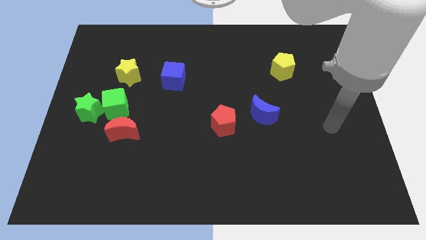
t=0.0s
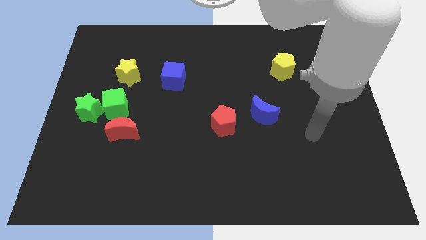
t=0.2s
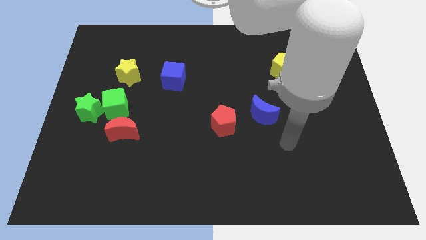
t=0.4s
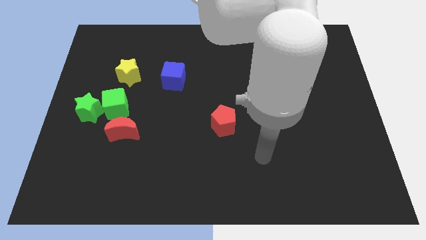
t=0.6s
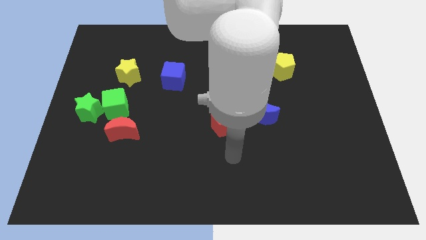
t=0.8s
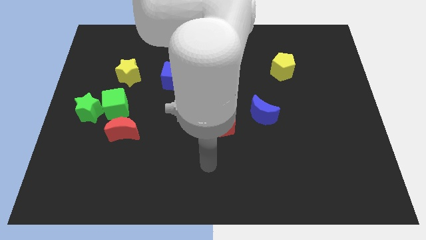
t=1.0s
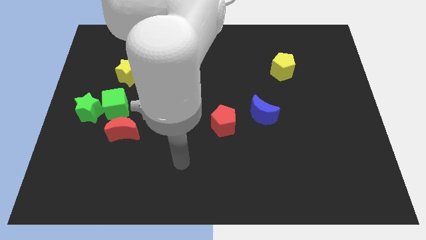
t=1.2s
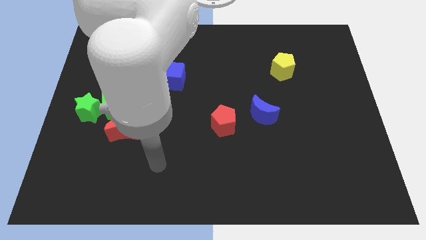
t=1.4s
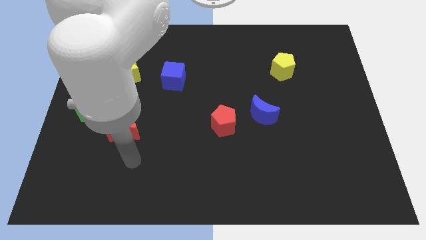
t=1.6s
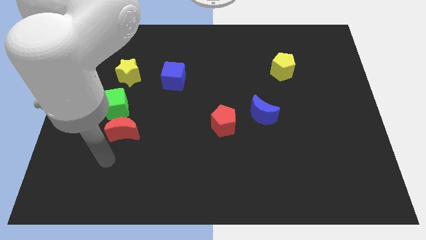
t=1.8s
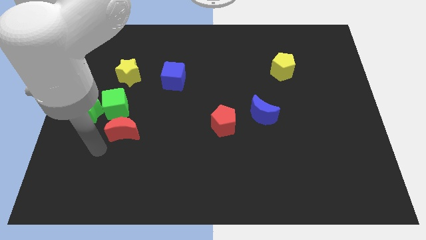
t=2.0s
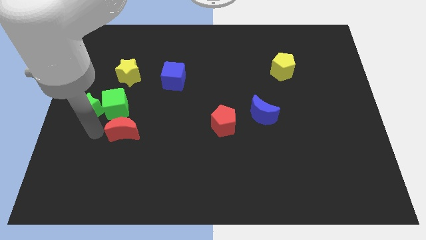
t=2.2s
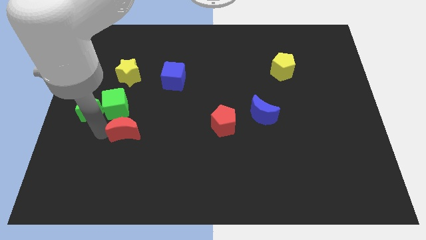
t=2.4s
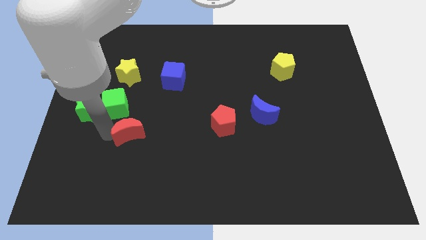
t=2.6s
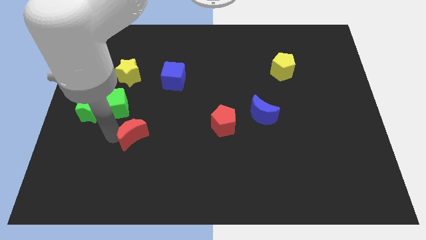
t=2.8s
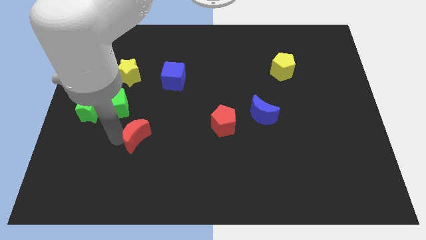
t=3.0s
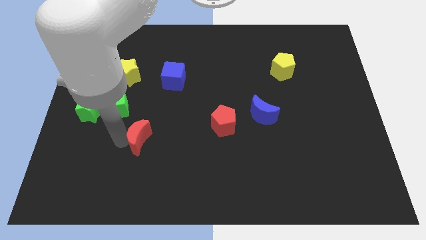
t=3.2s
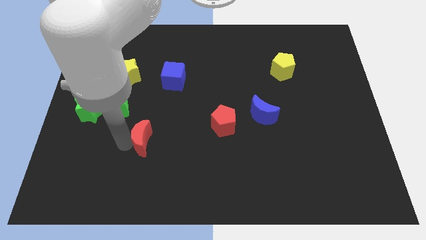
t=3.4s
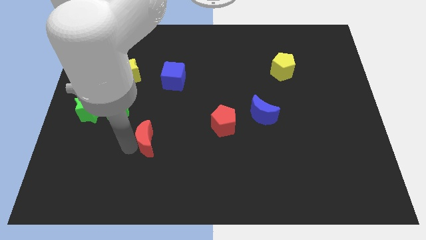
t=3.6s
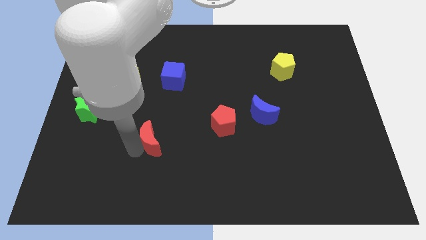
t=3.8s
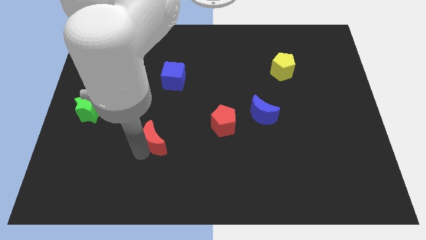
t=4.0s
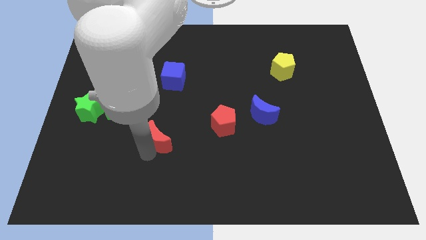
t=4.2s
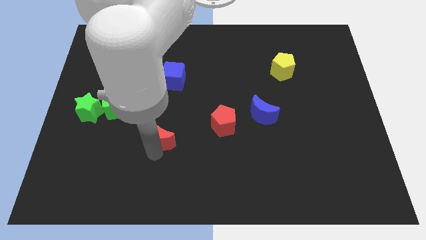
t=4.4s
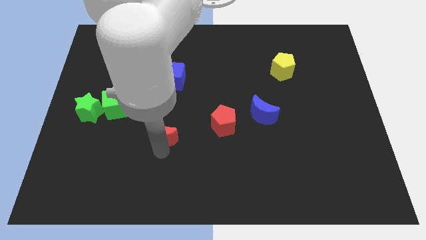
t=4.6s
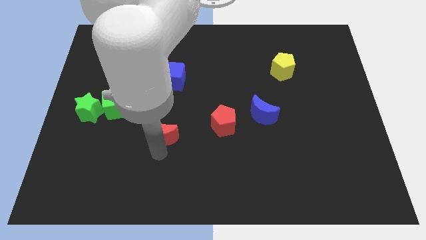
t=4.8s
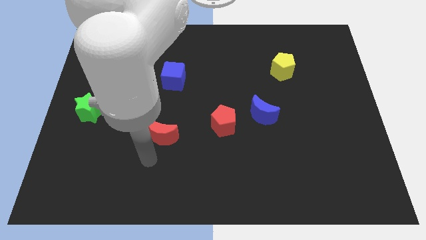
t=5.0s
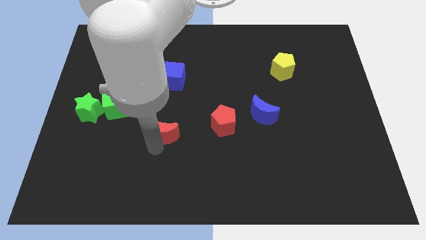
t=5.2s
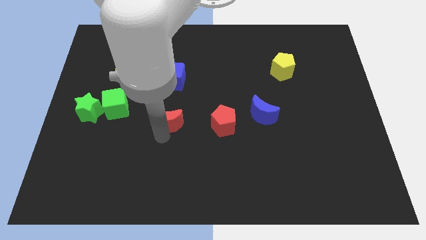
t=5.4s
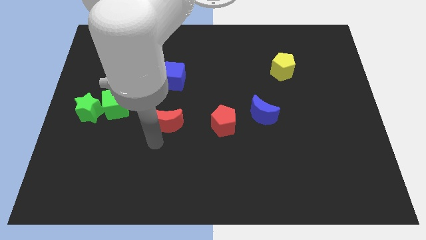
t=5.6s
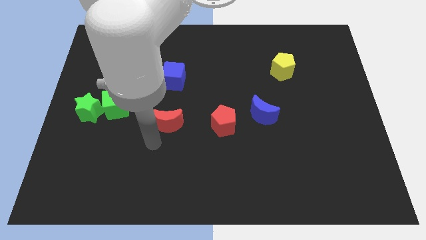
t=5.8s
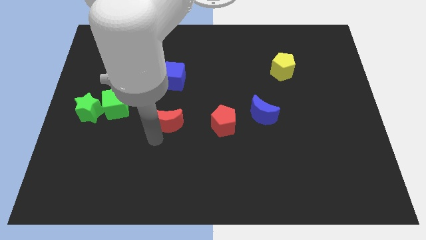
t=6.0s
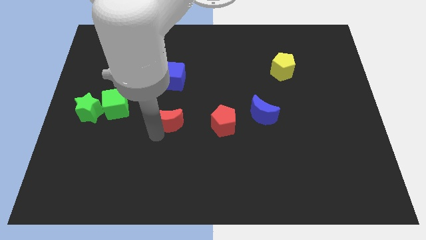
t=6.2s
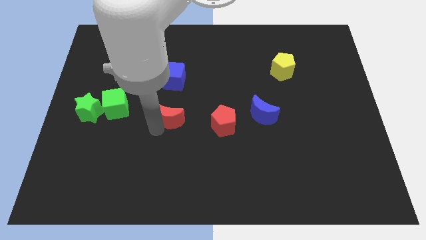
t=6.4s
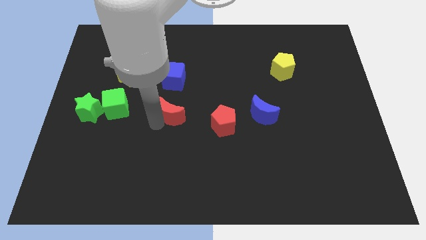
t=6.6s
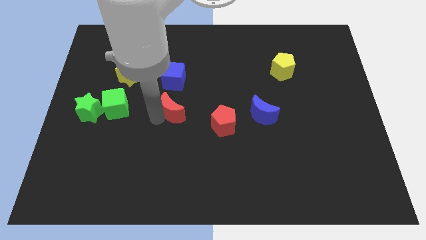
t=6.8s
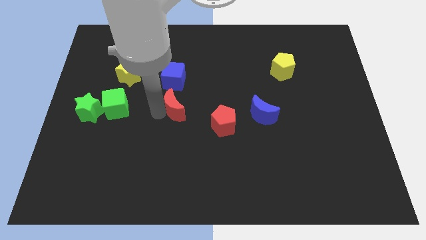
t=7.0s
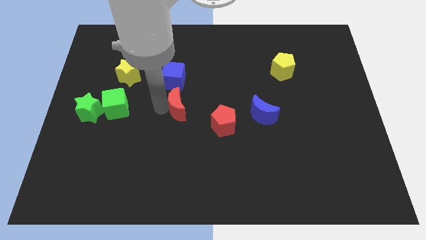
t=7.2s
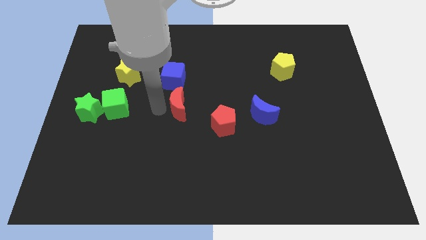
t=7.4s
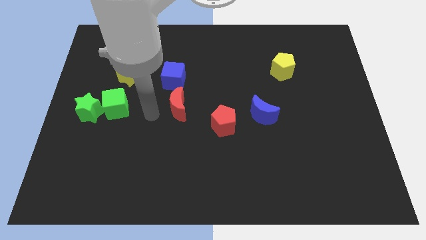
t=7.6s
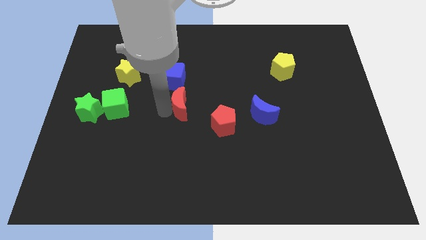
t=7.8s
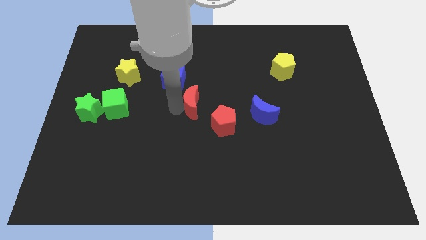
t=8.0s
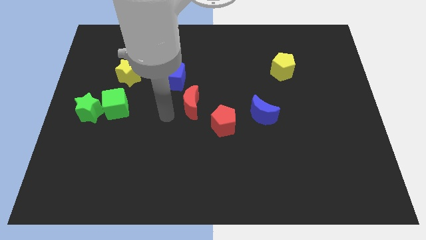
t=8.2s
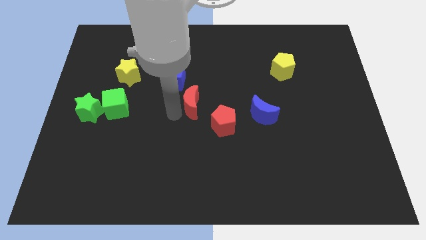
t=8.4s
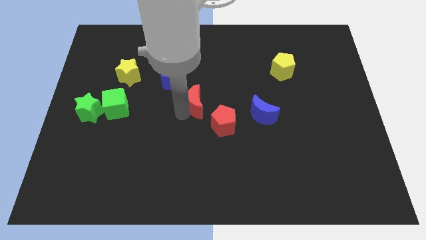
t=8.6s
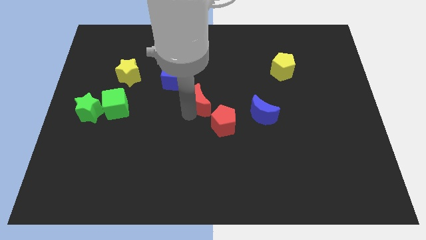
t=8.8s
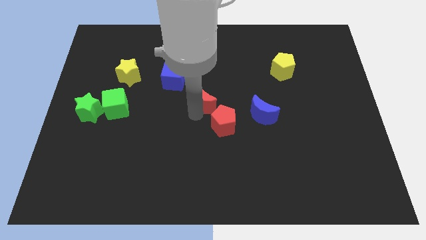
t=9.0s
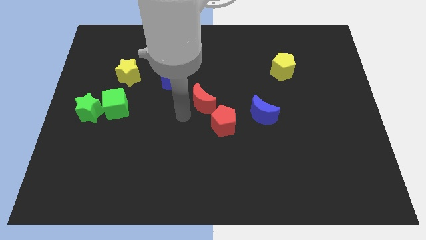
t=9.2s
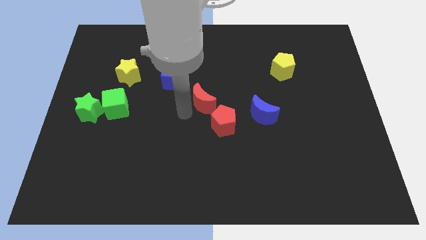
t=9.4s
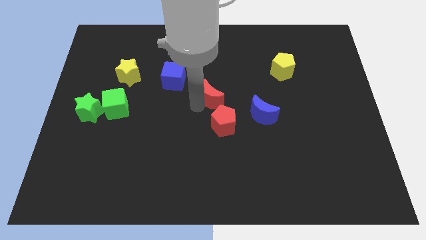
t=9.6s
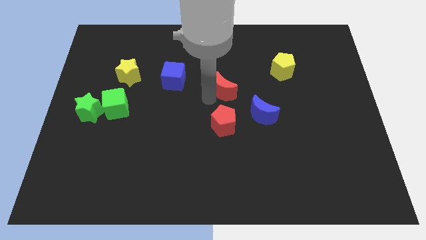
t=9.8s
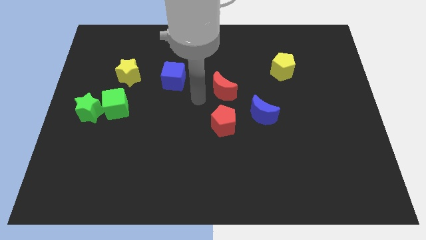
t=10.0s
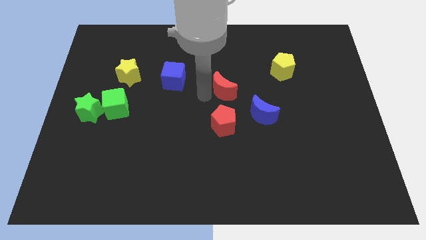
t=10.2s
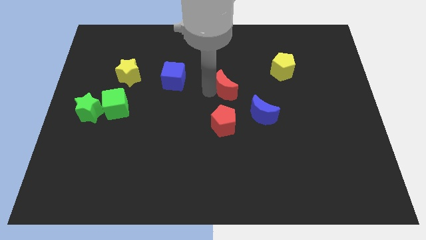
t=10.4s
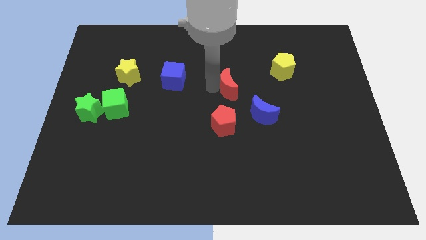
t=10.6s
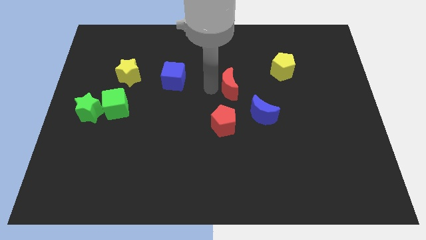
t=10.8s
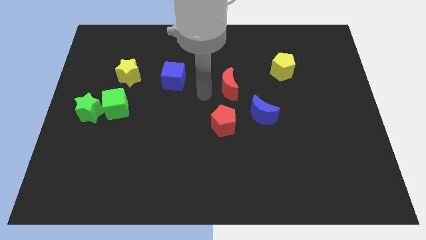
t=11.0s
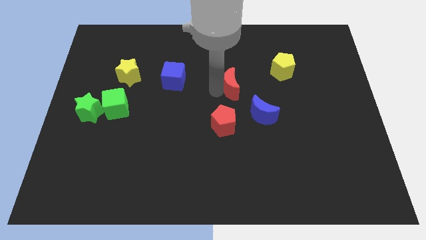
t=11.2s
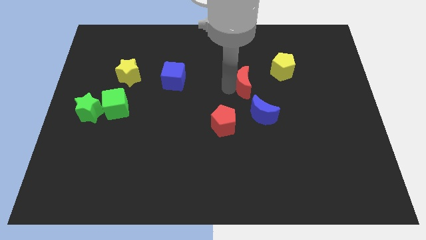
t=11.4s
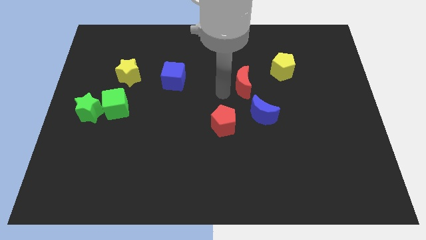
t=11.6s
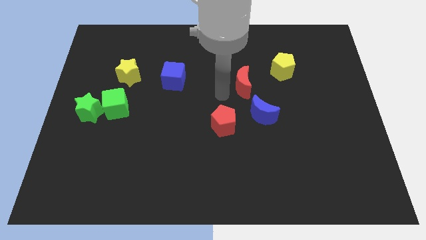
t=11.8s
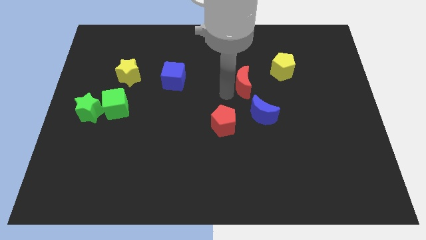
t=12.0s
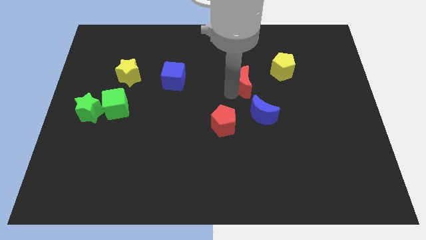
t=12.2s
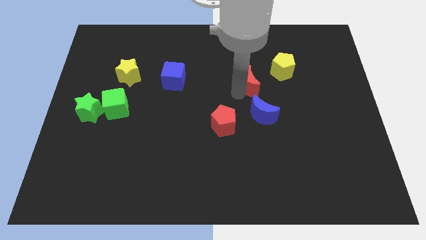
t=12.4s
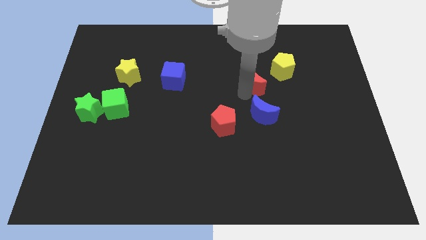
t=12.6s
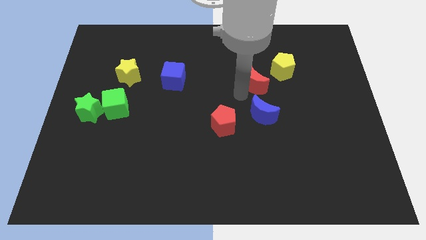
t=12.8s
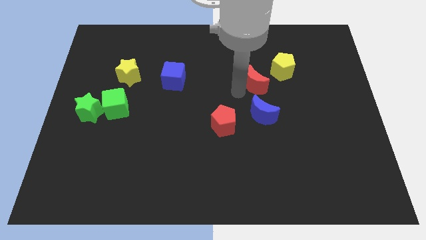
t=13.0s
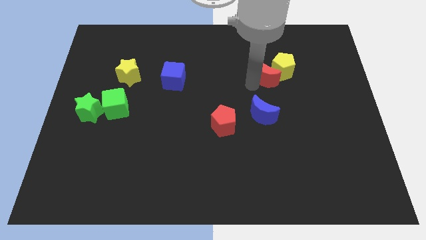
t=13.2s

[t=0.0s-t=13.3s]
push the red moon close to the yellow pentagon
